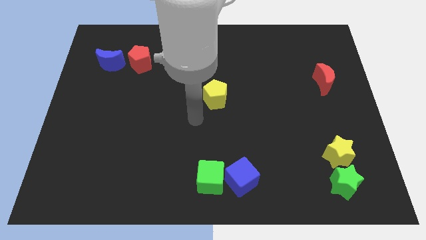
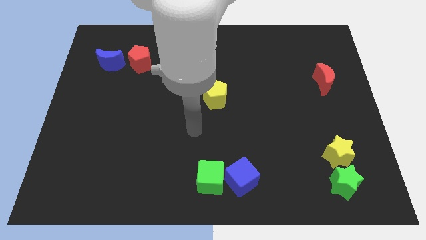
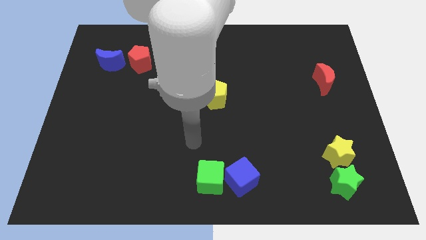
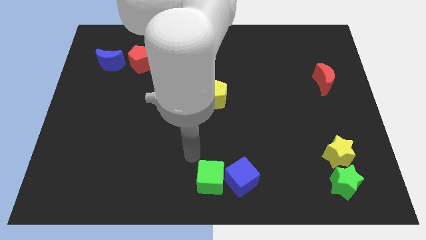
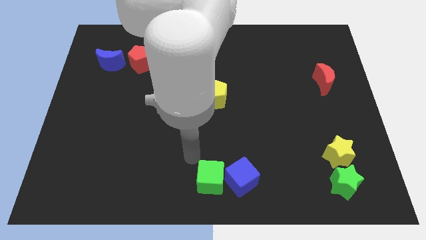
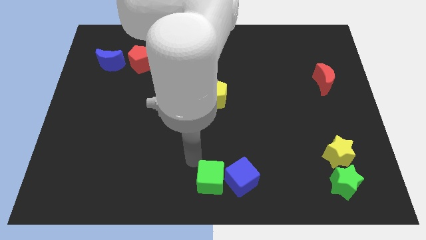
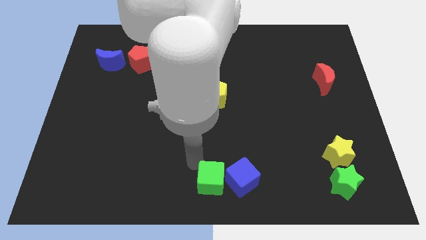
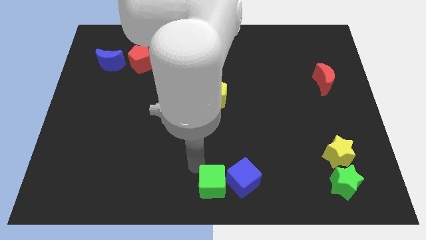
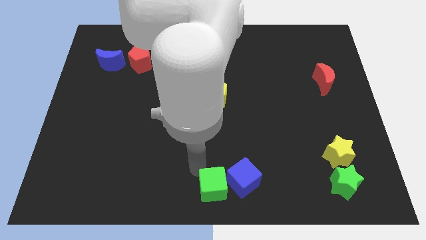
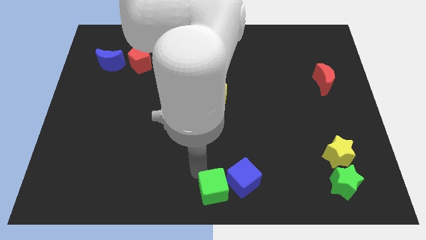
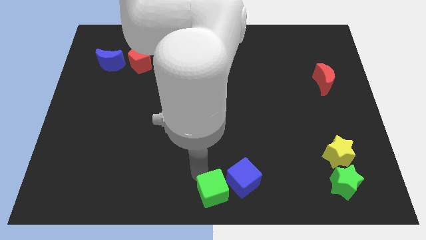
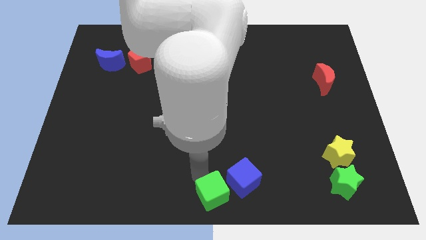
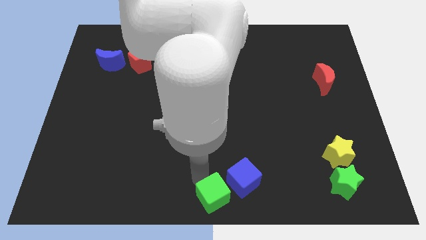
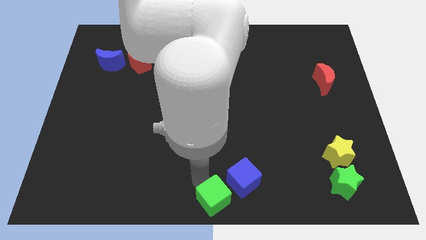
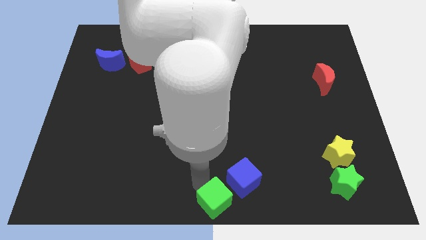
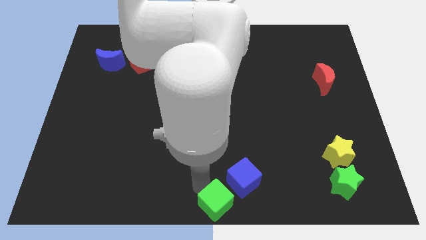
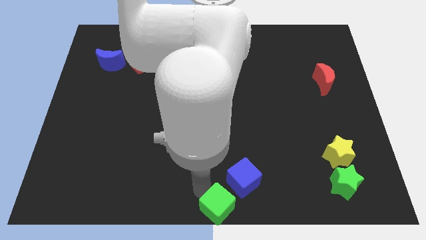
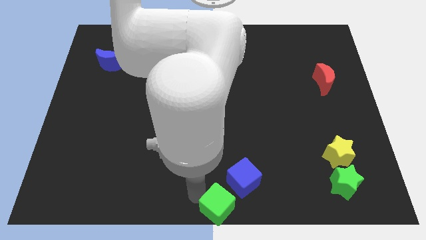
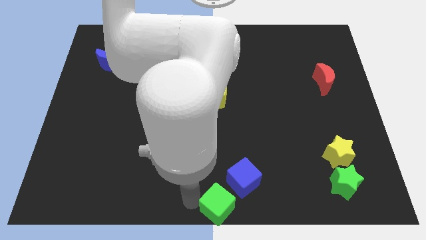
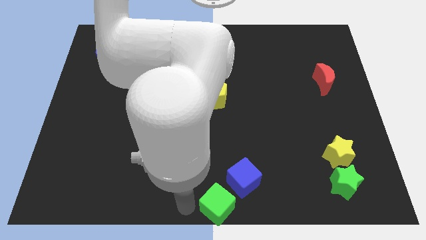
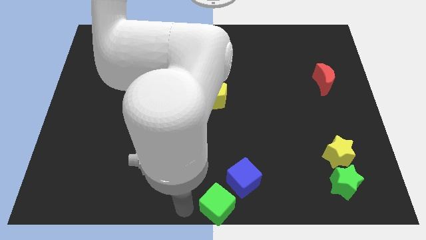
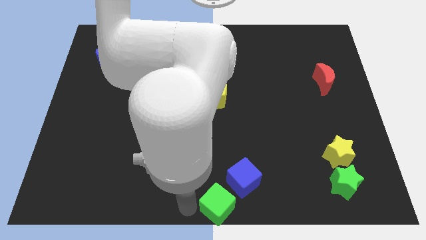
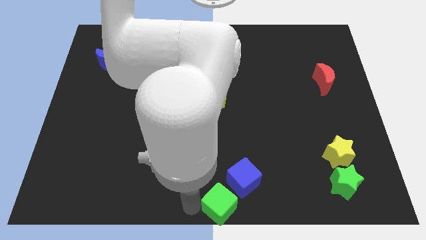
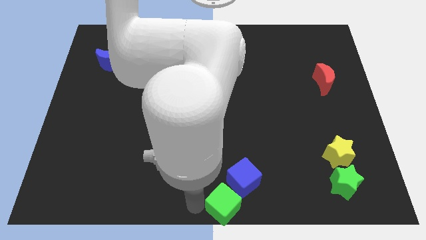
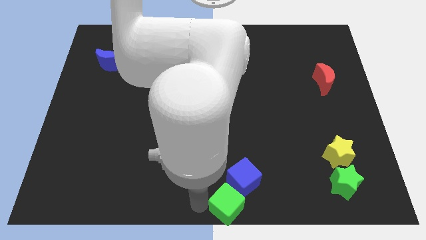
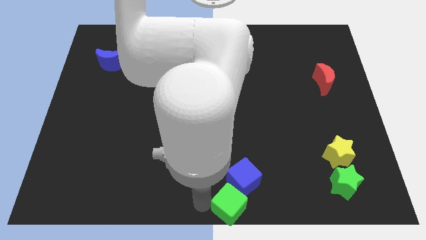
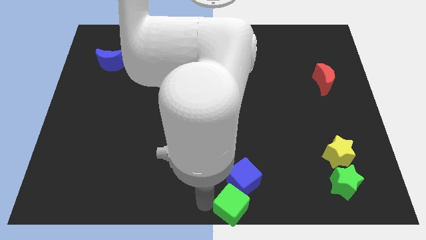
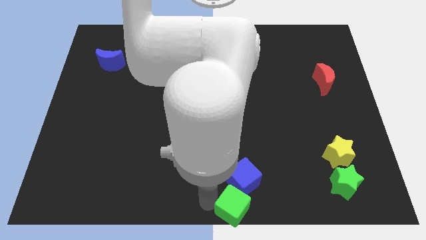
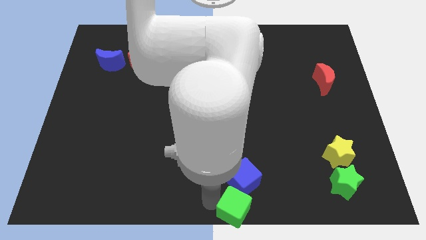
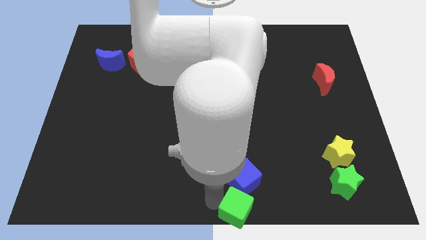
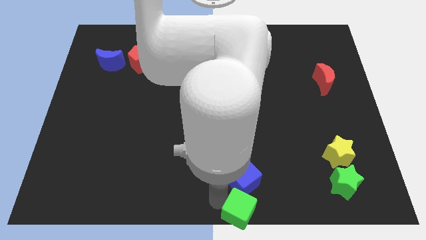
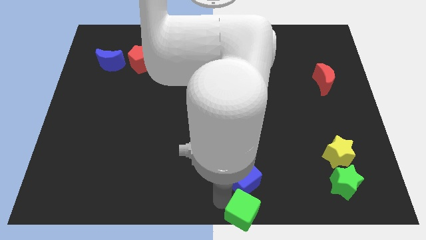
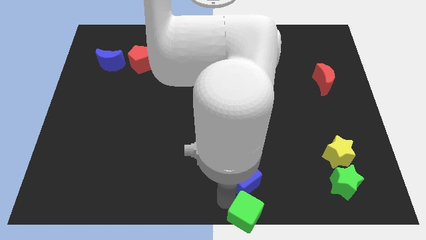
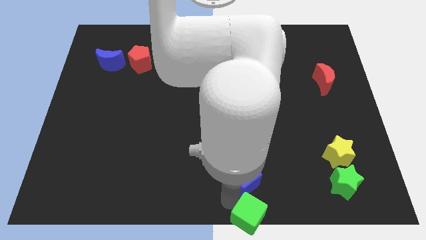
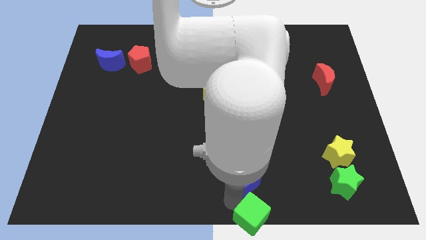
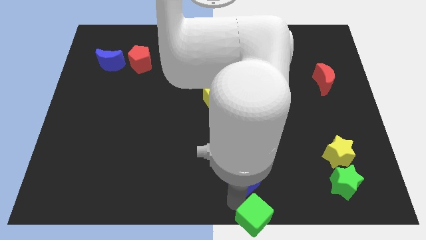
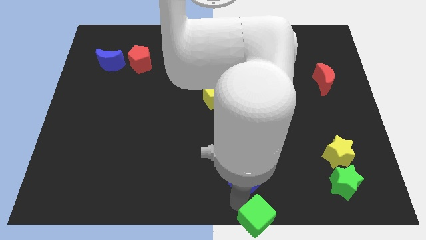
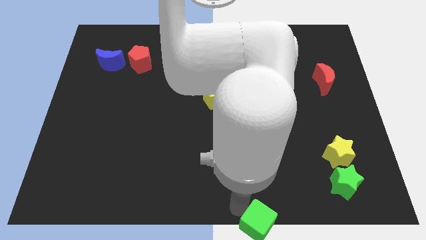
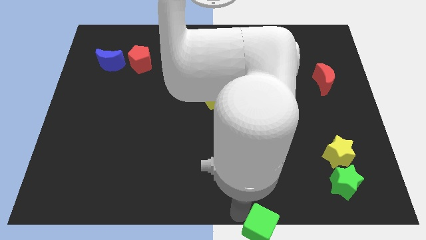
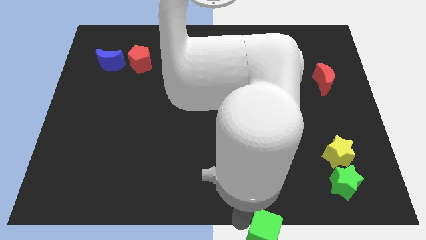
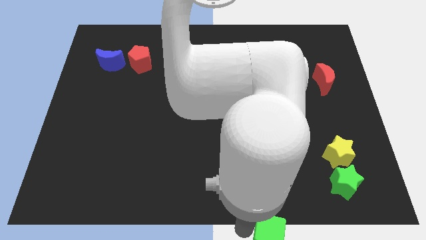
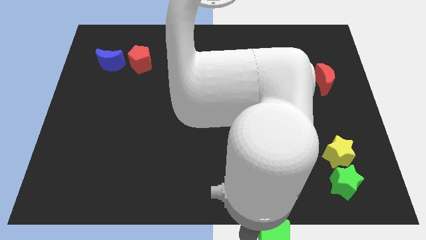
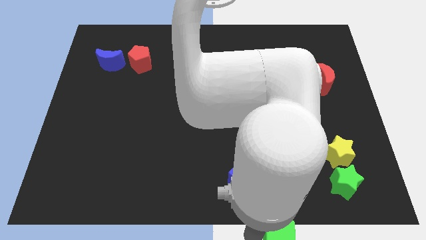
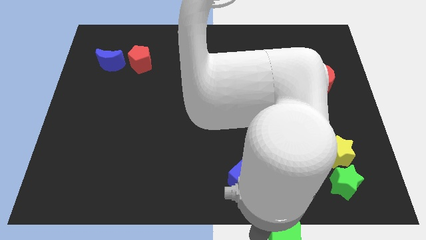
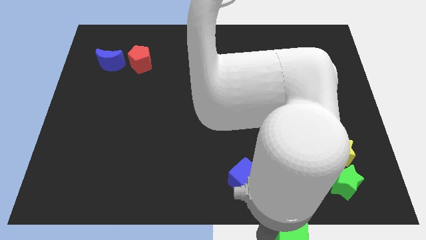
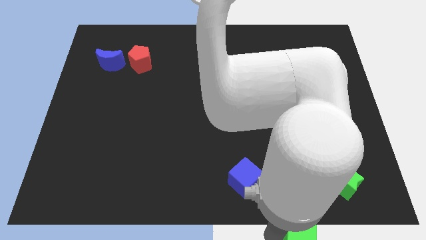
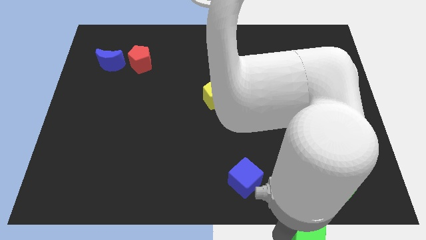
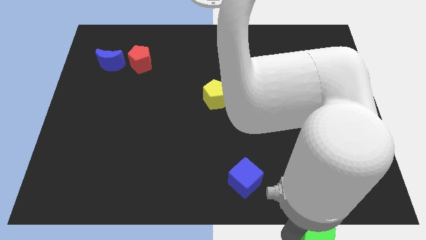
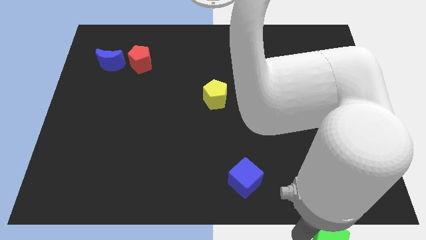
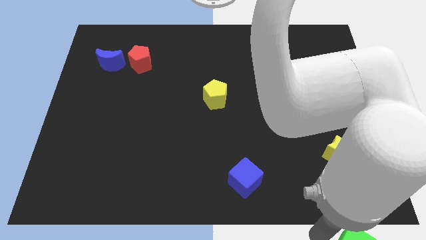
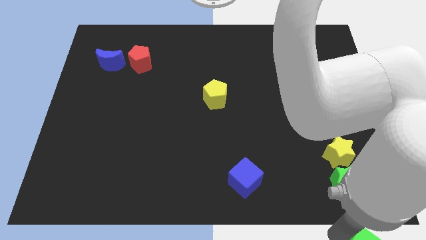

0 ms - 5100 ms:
push the green cube to the bottom right

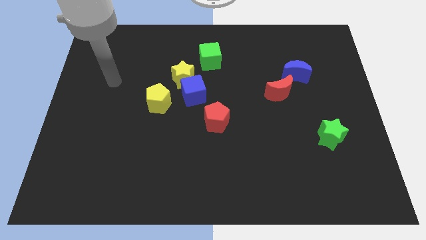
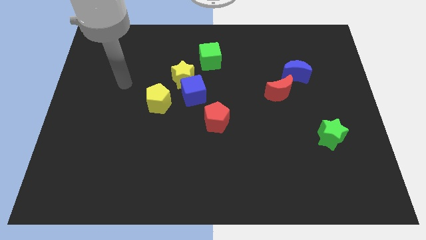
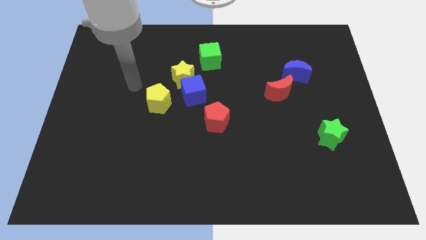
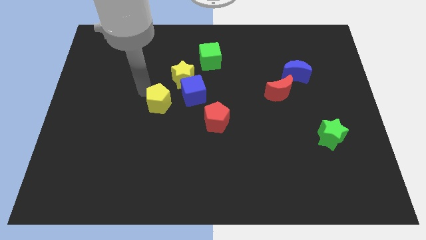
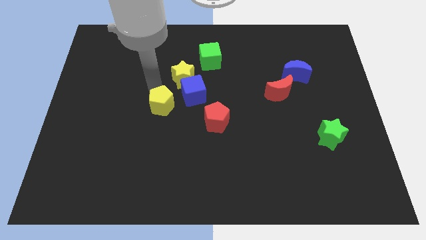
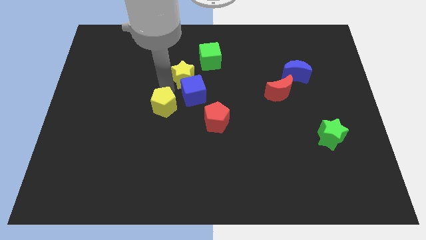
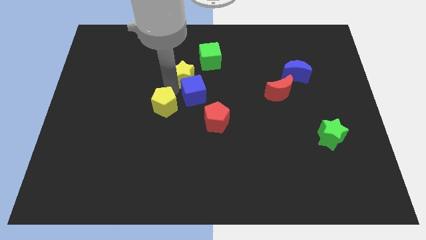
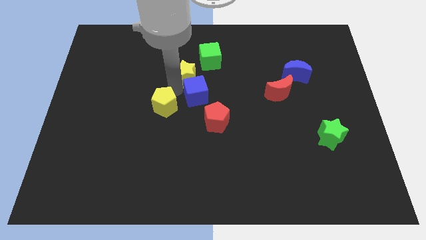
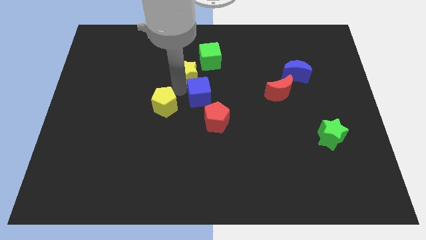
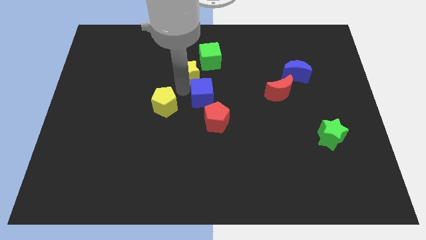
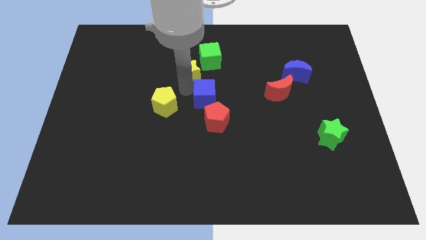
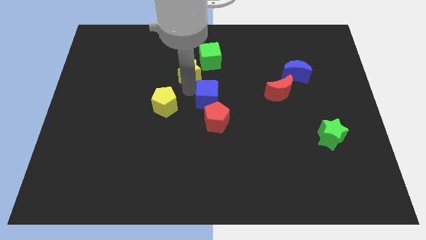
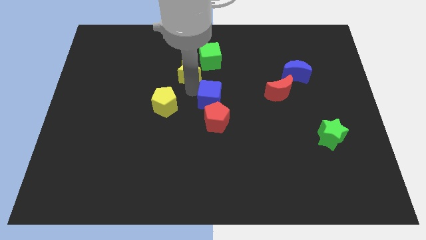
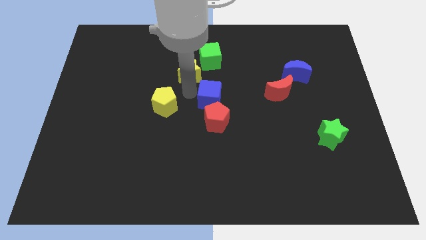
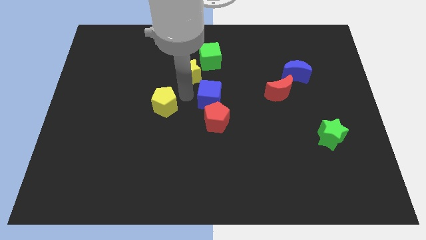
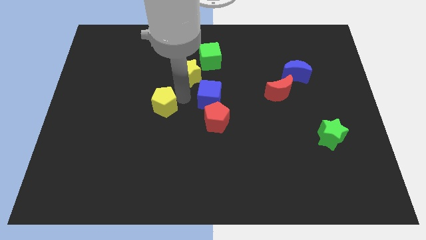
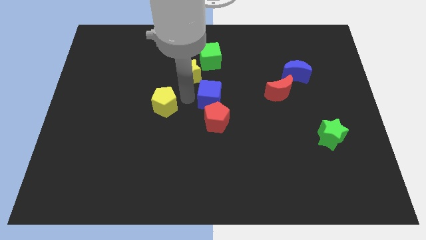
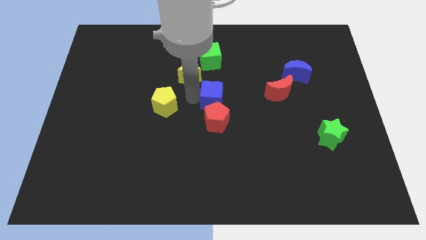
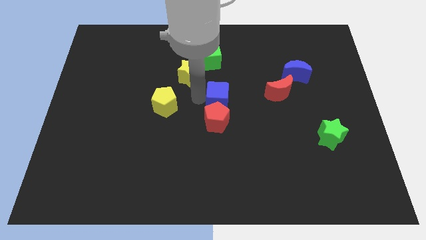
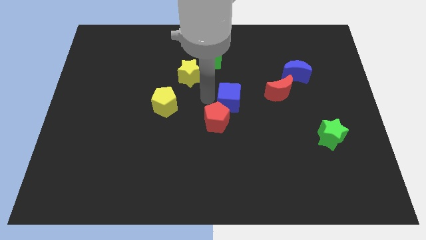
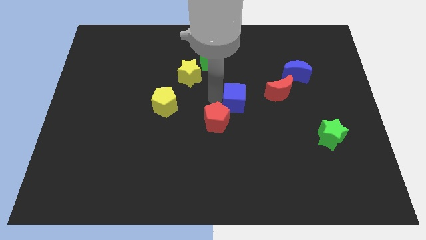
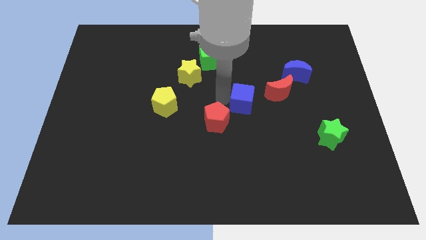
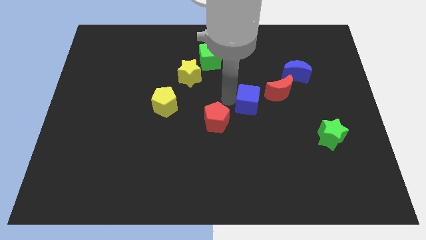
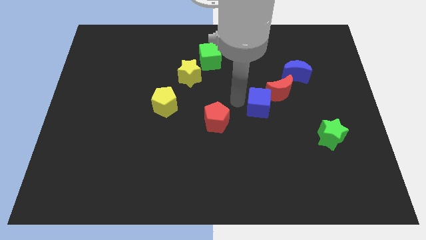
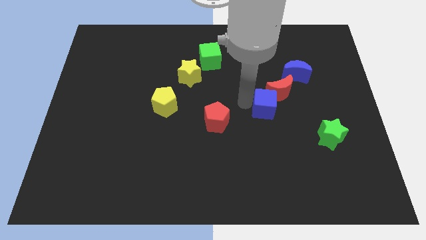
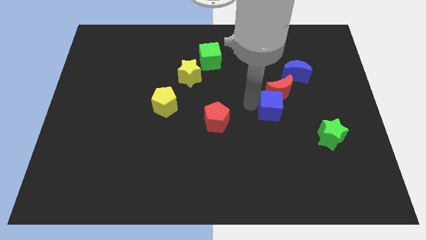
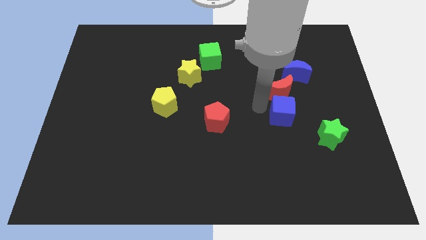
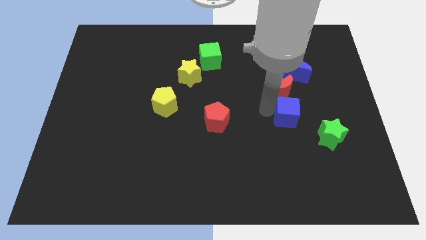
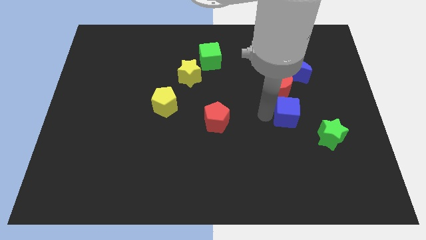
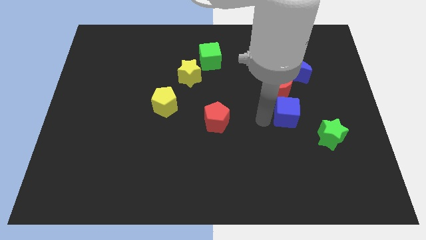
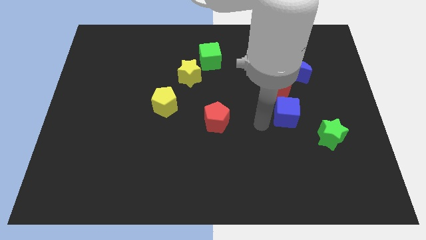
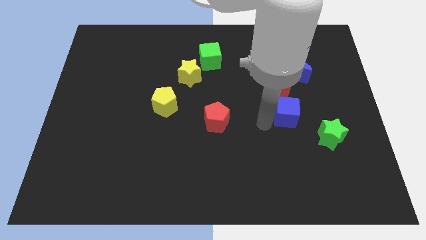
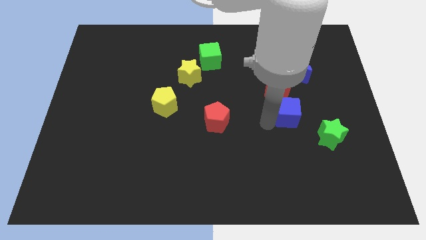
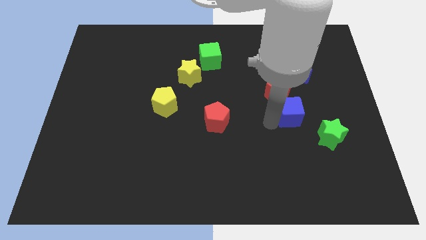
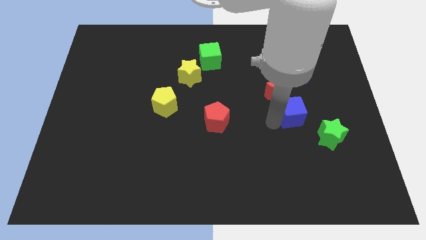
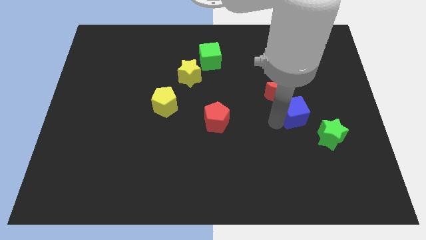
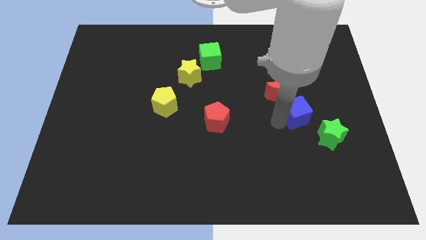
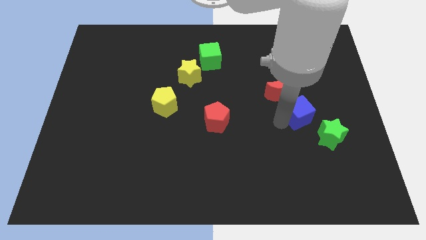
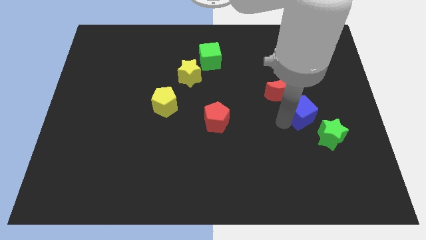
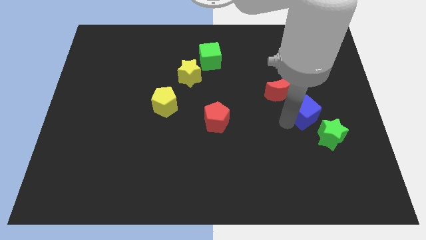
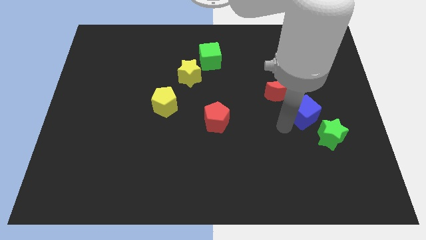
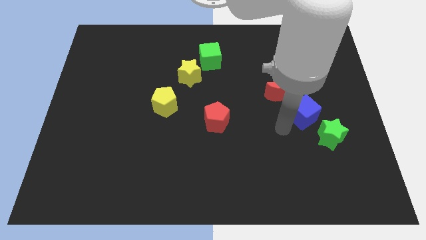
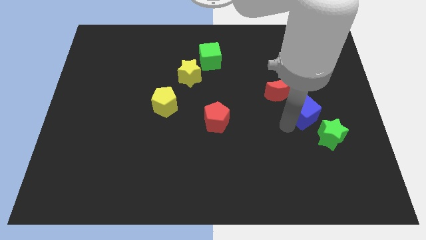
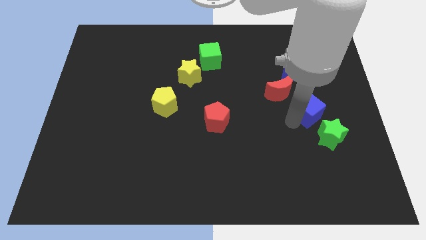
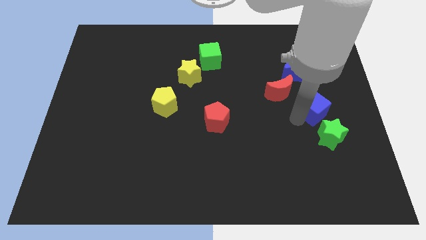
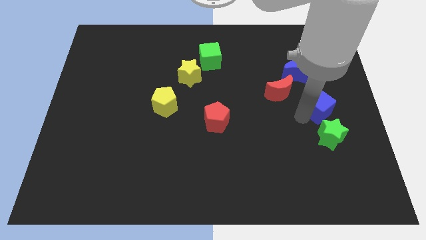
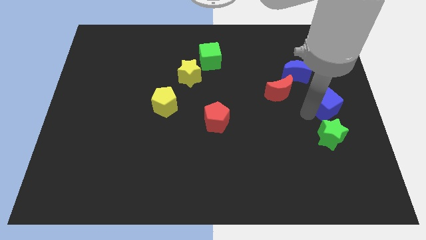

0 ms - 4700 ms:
move the blue cube to the center right
